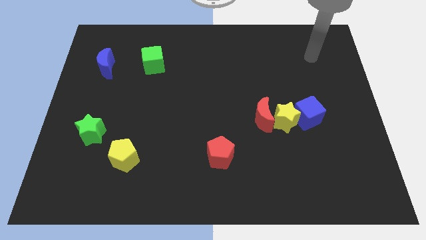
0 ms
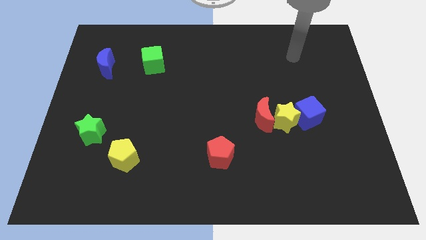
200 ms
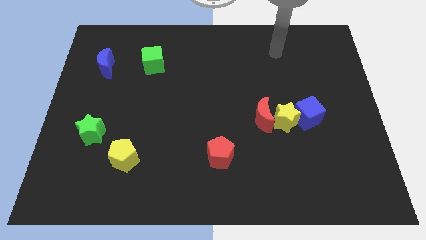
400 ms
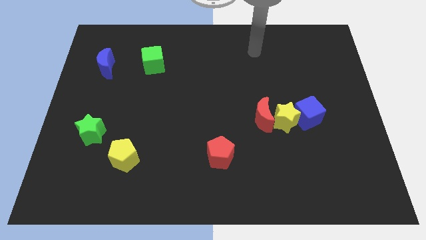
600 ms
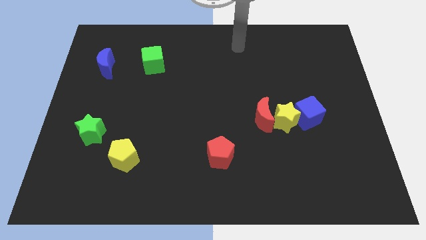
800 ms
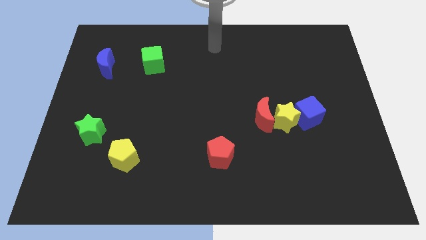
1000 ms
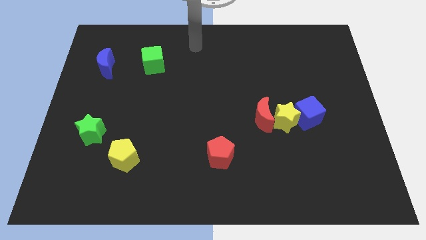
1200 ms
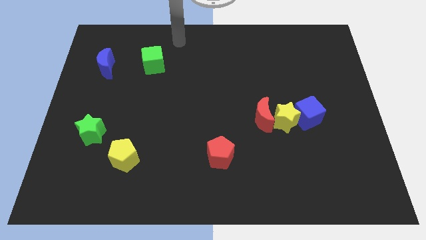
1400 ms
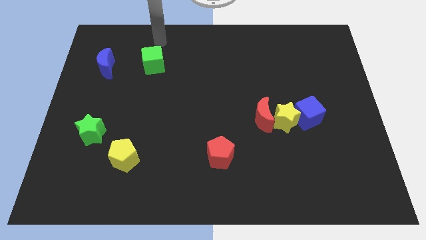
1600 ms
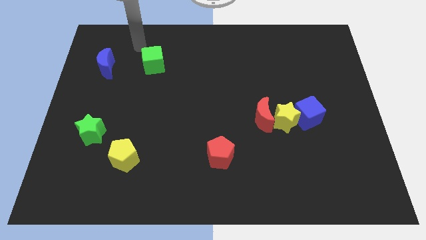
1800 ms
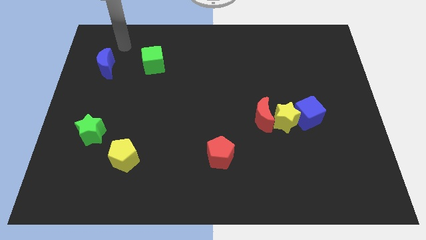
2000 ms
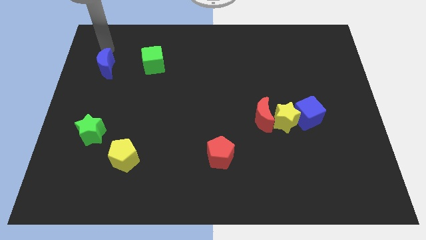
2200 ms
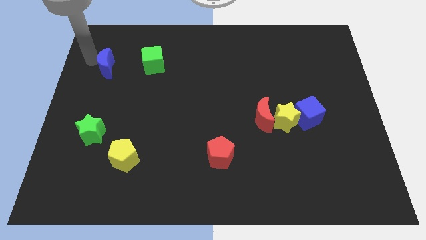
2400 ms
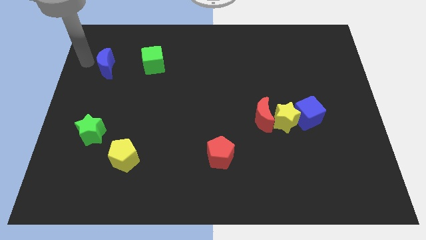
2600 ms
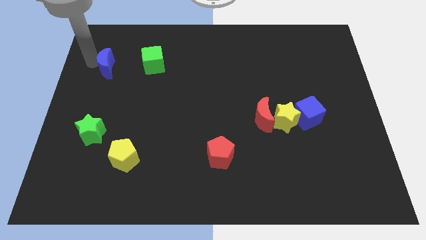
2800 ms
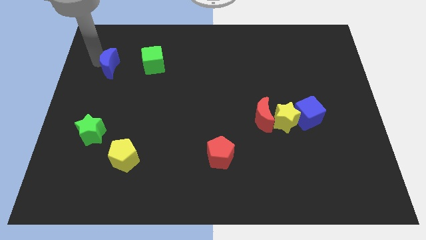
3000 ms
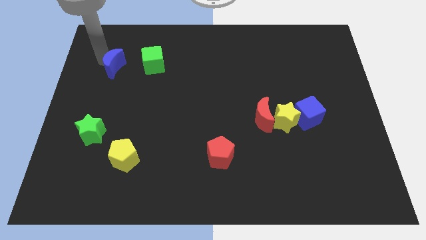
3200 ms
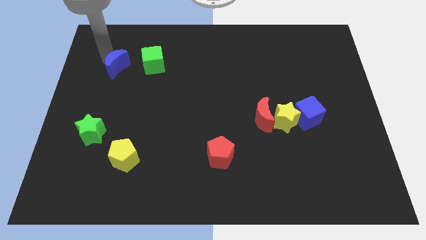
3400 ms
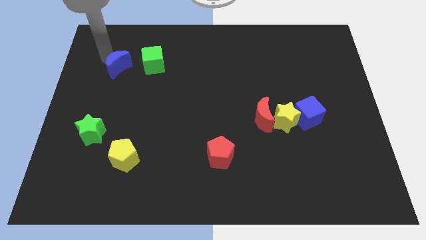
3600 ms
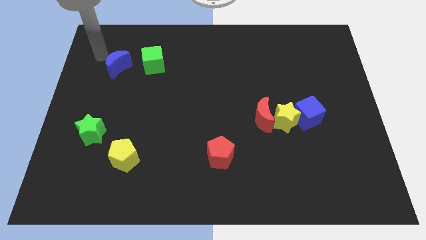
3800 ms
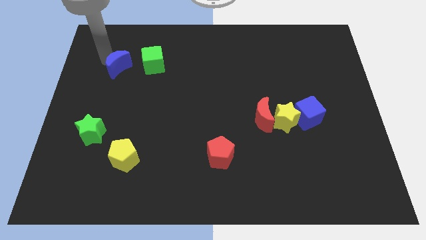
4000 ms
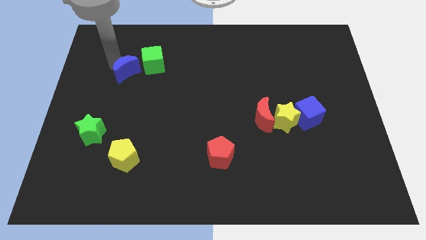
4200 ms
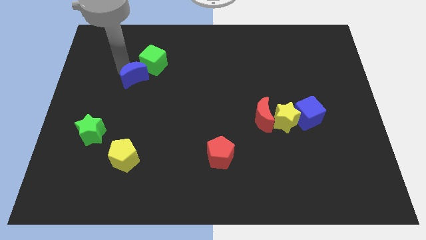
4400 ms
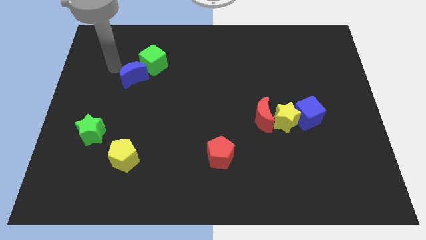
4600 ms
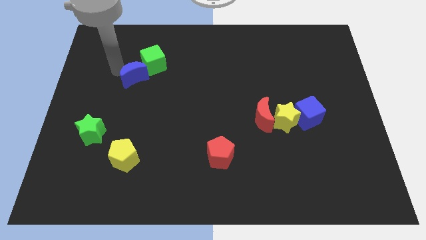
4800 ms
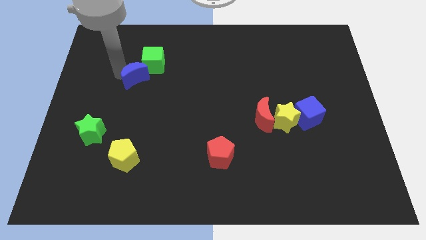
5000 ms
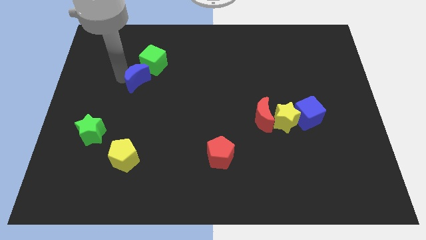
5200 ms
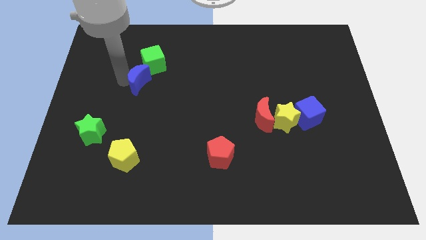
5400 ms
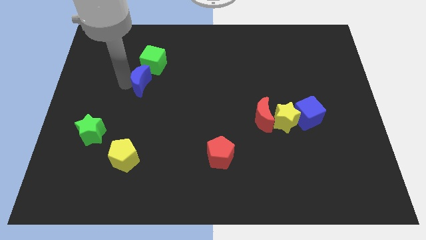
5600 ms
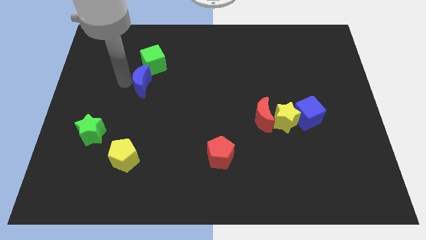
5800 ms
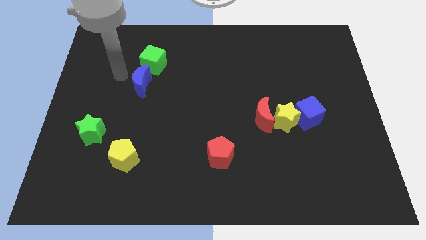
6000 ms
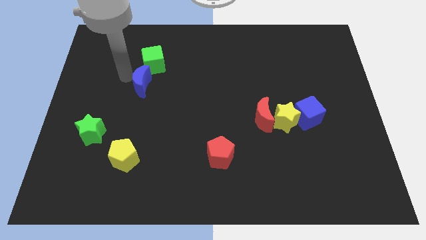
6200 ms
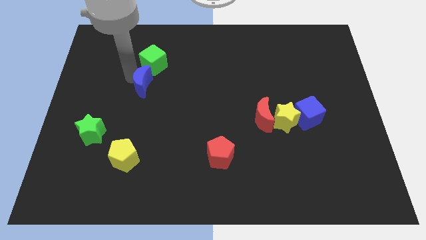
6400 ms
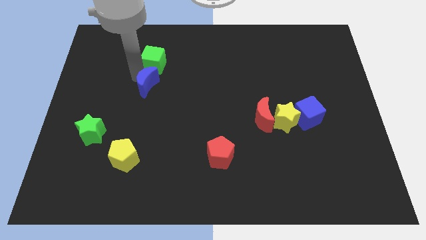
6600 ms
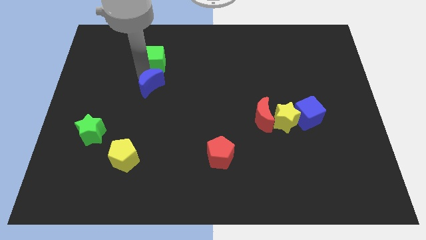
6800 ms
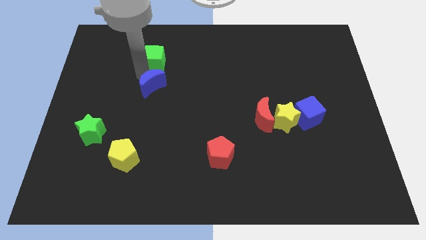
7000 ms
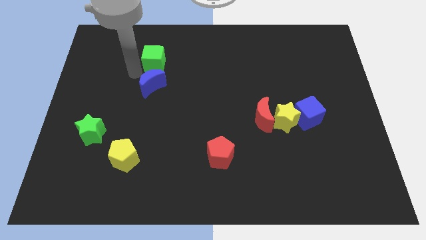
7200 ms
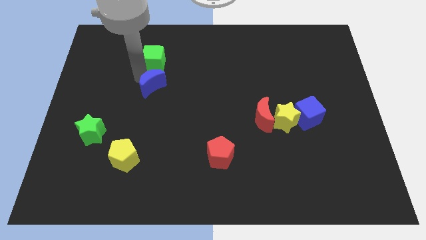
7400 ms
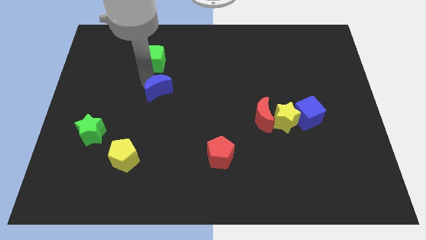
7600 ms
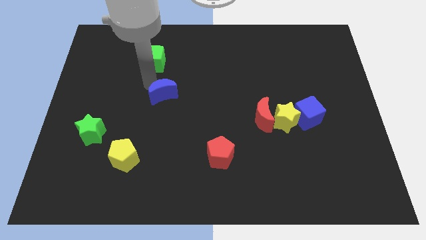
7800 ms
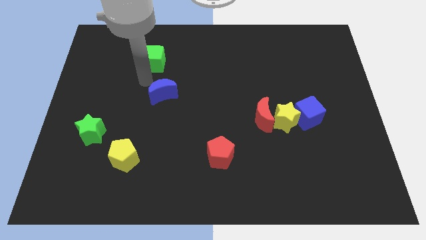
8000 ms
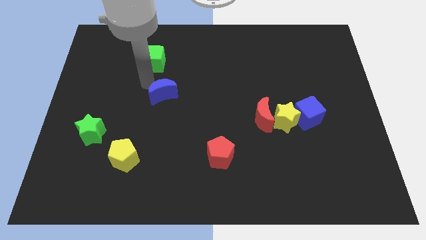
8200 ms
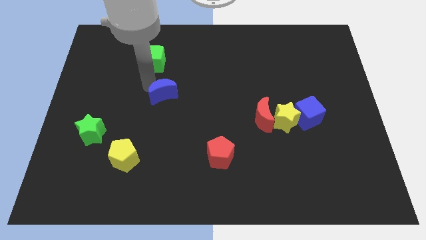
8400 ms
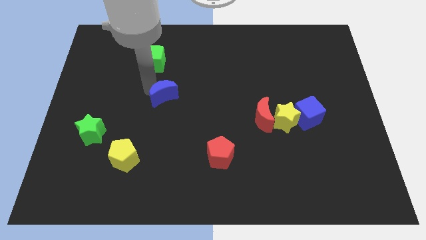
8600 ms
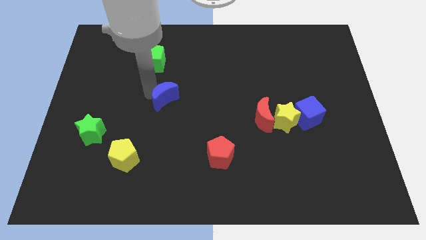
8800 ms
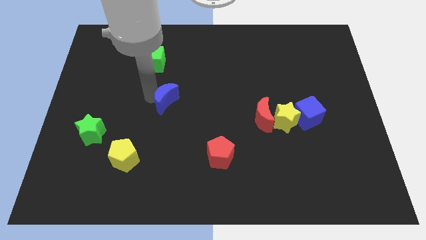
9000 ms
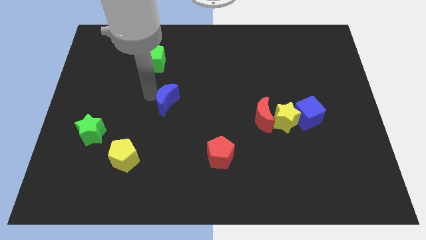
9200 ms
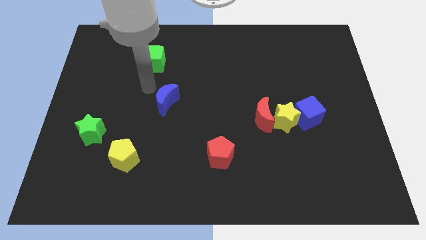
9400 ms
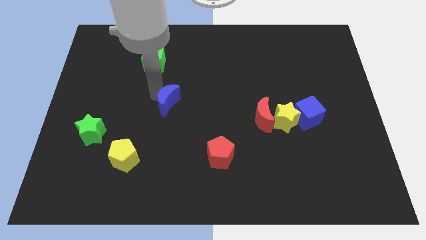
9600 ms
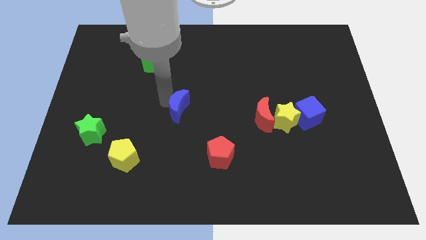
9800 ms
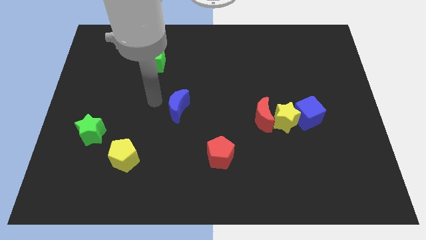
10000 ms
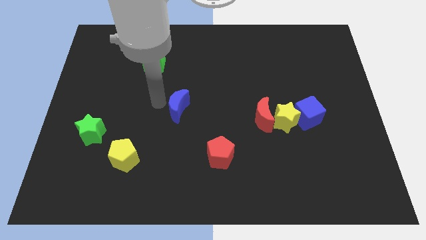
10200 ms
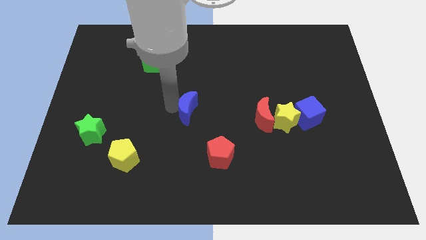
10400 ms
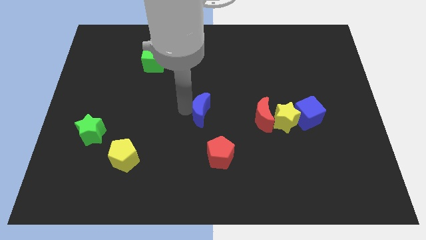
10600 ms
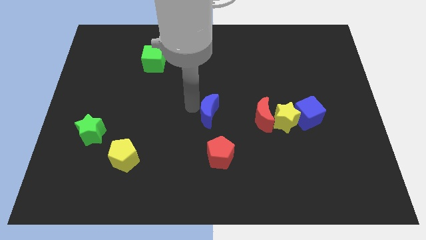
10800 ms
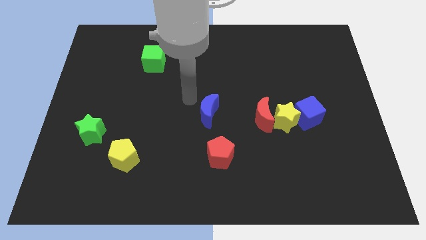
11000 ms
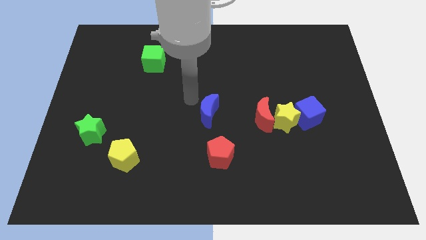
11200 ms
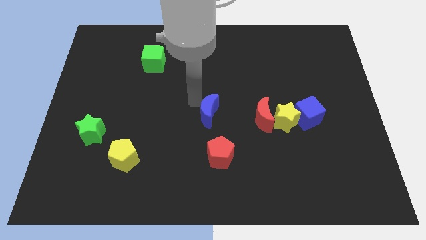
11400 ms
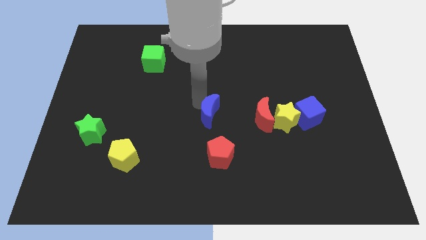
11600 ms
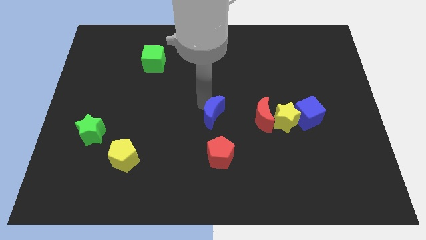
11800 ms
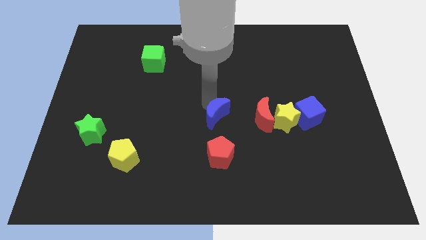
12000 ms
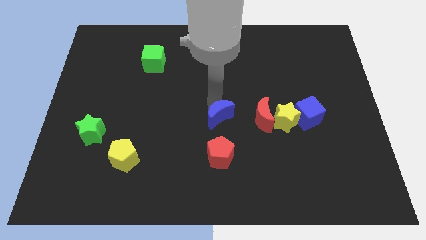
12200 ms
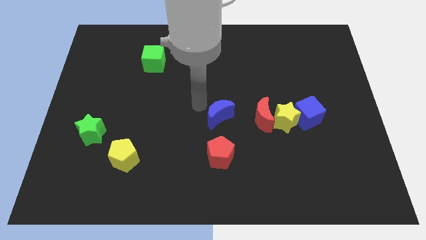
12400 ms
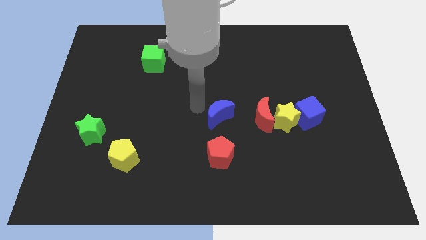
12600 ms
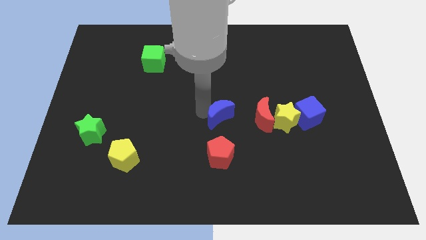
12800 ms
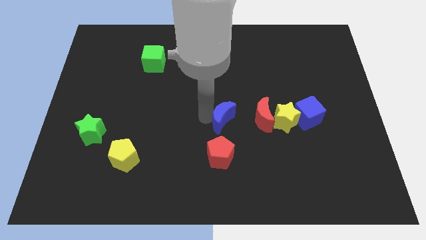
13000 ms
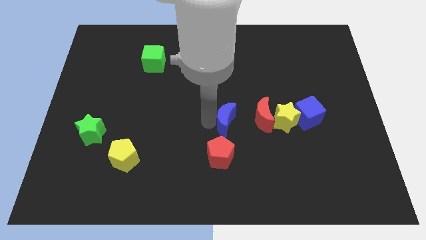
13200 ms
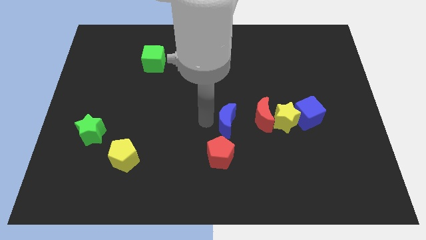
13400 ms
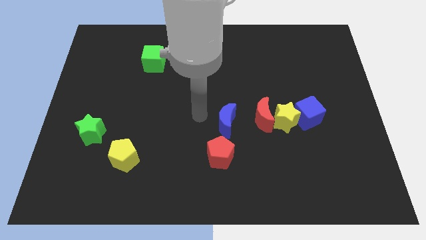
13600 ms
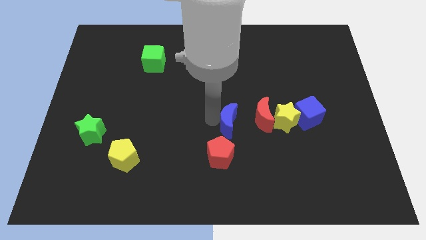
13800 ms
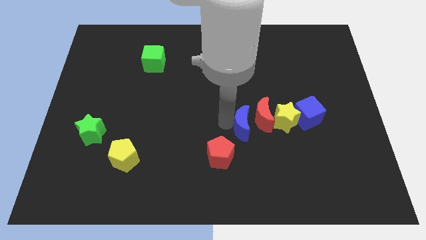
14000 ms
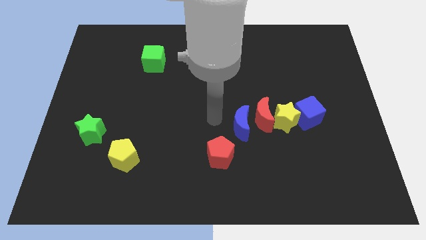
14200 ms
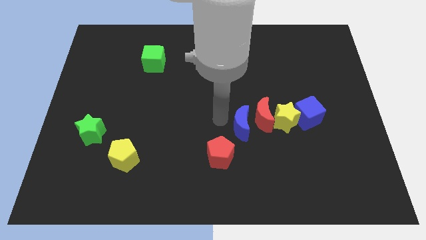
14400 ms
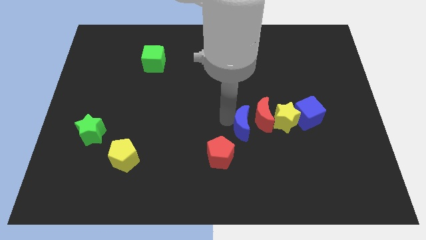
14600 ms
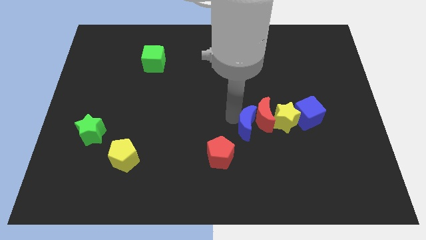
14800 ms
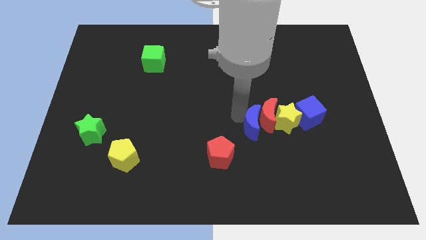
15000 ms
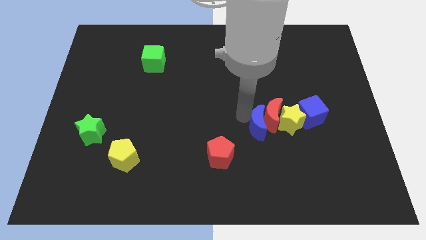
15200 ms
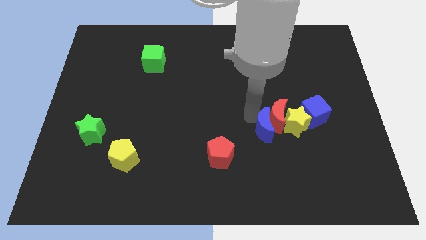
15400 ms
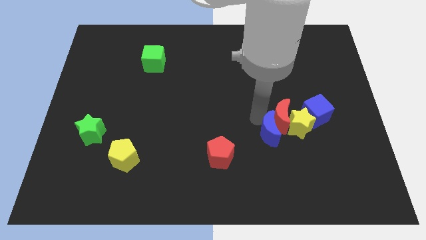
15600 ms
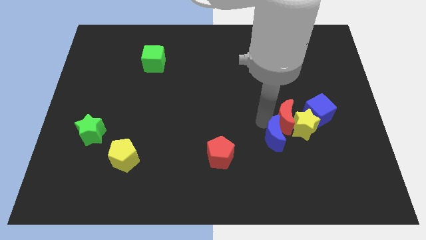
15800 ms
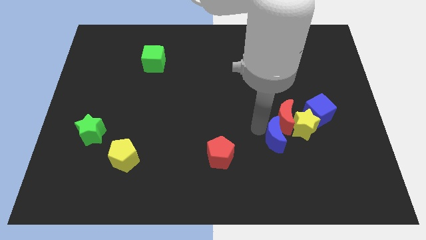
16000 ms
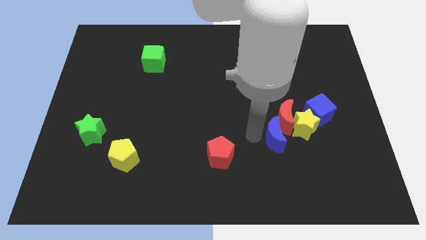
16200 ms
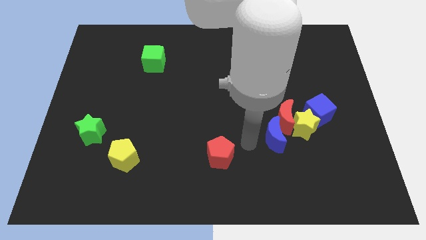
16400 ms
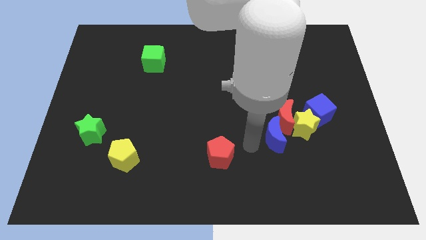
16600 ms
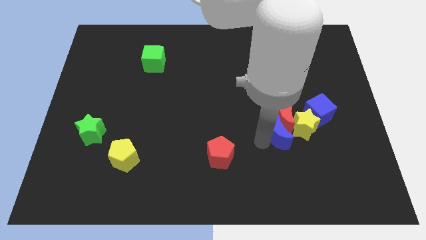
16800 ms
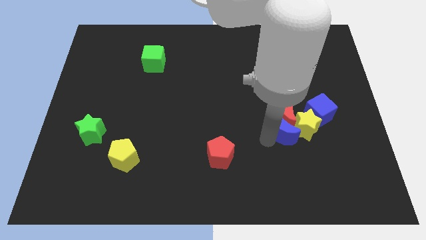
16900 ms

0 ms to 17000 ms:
push the blue moon next to the yellow star
